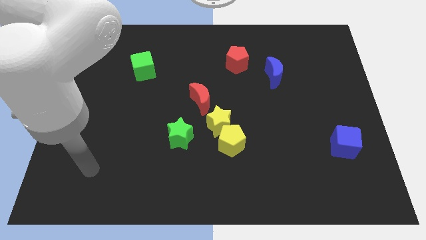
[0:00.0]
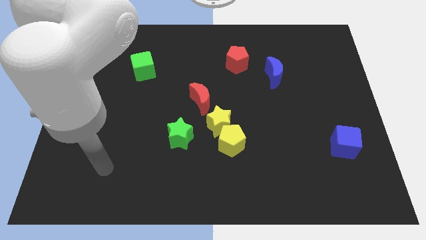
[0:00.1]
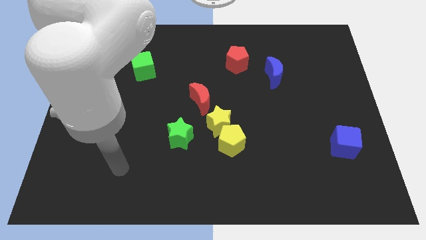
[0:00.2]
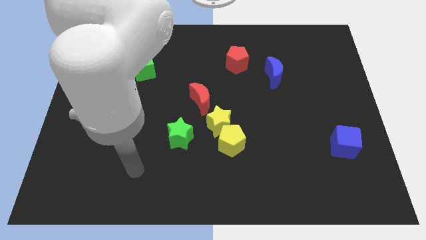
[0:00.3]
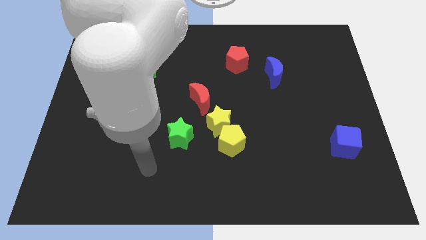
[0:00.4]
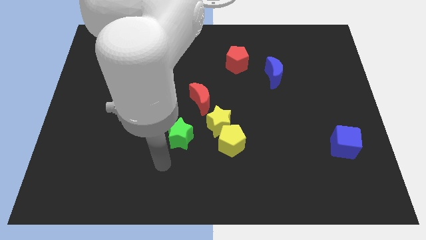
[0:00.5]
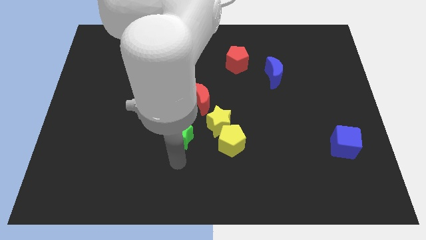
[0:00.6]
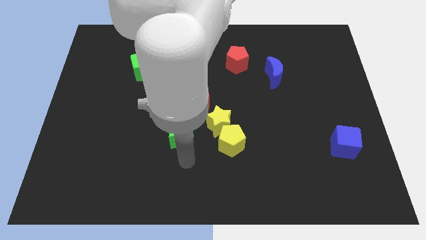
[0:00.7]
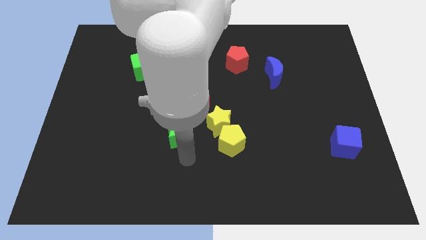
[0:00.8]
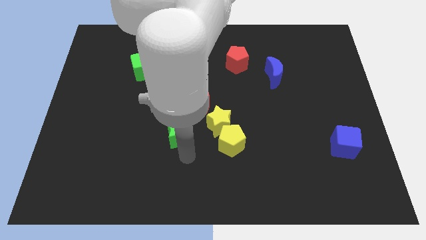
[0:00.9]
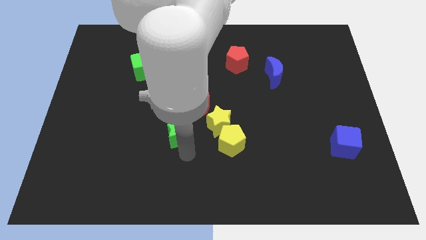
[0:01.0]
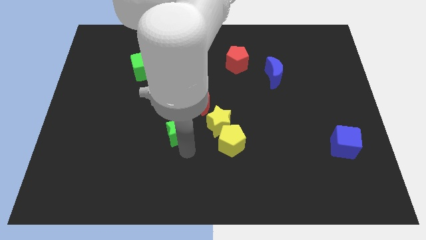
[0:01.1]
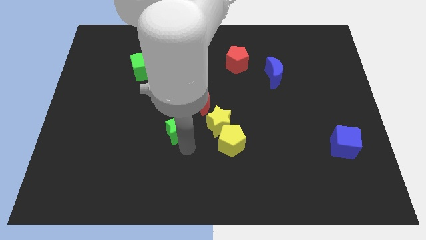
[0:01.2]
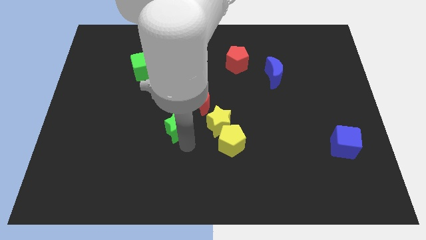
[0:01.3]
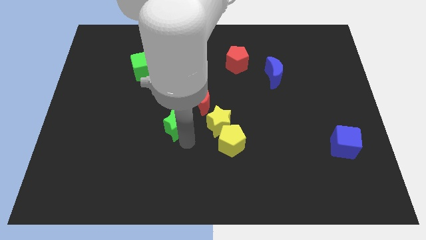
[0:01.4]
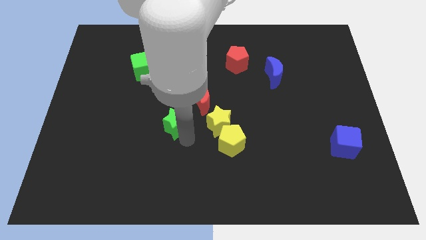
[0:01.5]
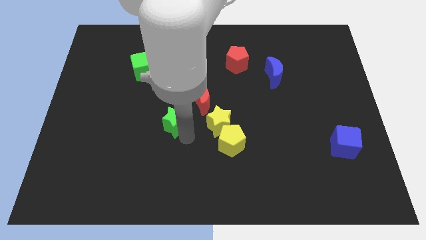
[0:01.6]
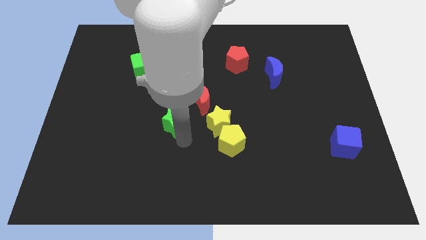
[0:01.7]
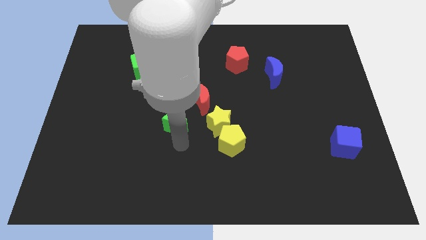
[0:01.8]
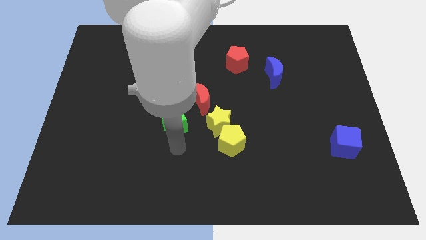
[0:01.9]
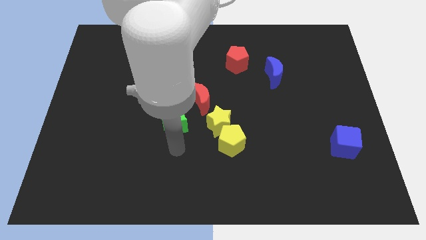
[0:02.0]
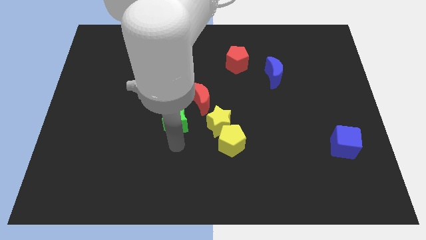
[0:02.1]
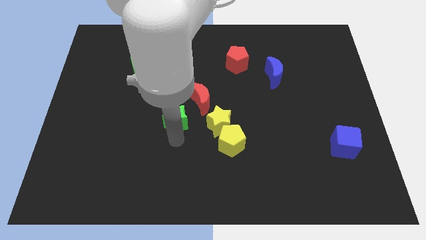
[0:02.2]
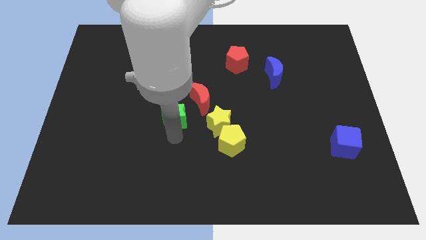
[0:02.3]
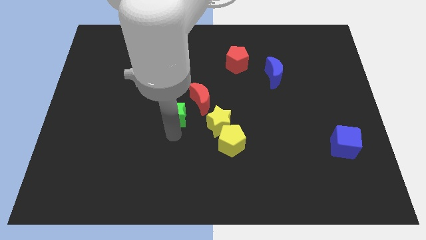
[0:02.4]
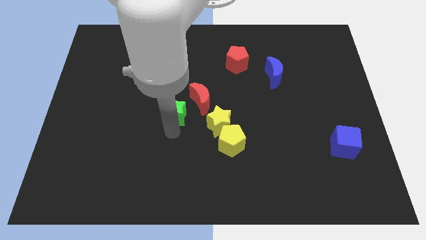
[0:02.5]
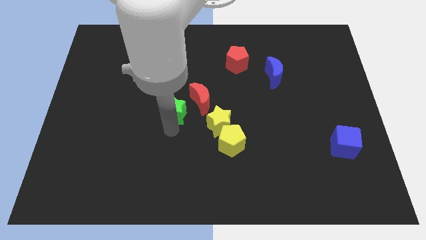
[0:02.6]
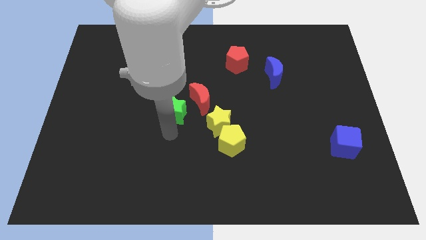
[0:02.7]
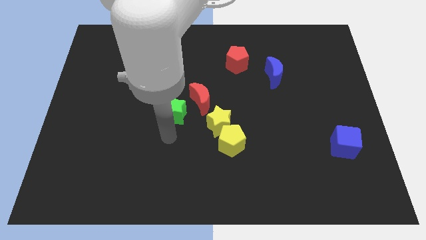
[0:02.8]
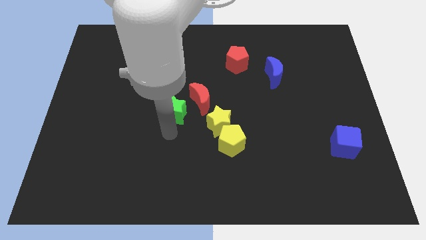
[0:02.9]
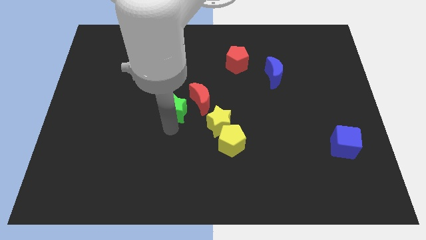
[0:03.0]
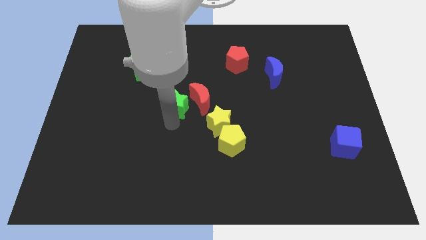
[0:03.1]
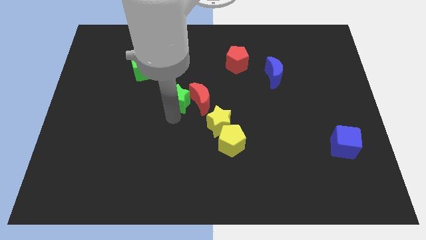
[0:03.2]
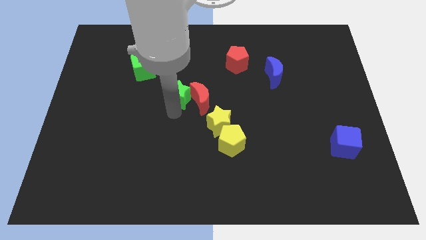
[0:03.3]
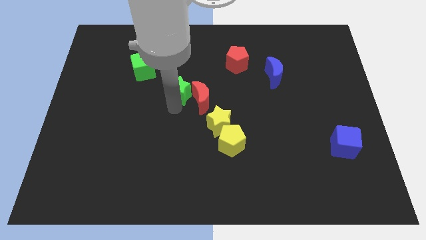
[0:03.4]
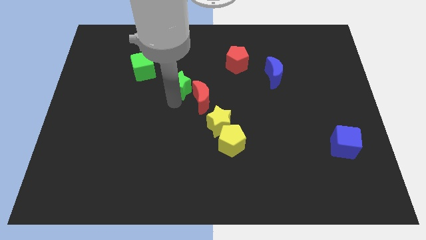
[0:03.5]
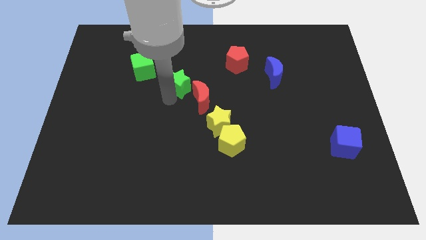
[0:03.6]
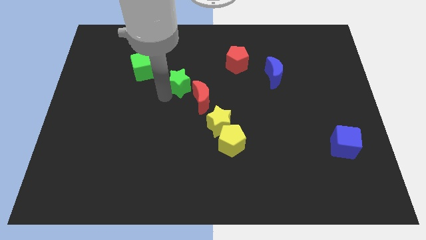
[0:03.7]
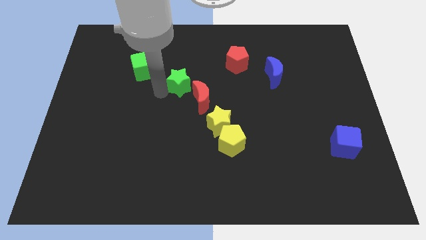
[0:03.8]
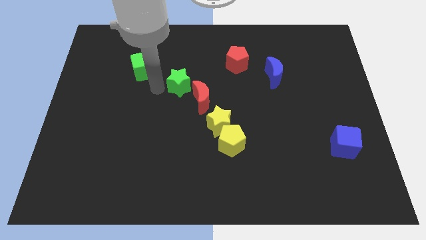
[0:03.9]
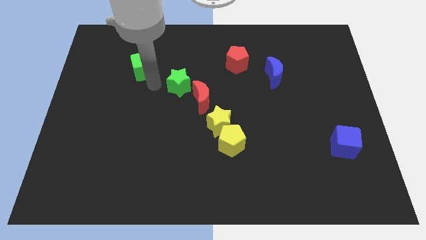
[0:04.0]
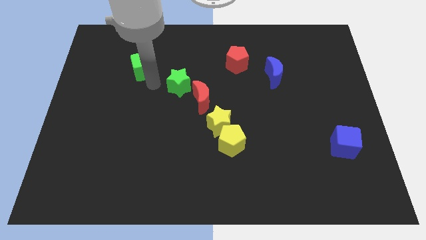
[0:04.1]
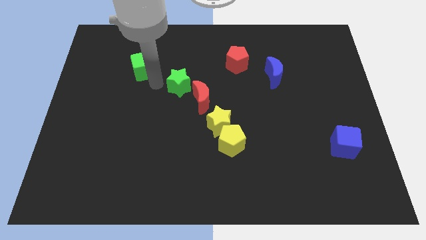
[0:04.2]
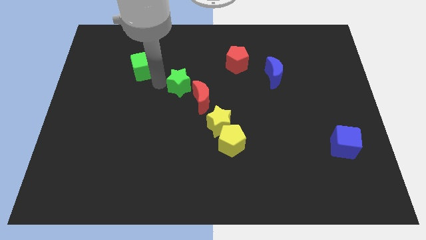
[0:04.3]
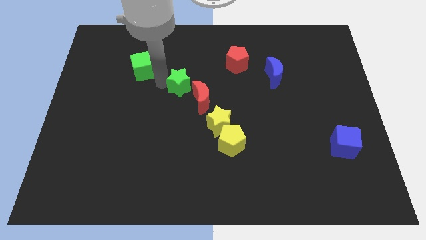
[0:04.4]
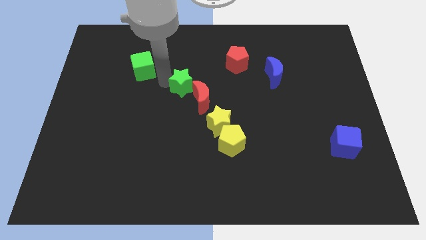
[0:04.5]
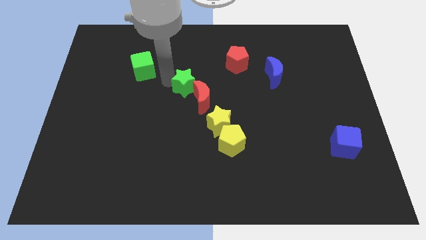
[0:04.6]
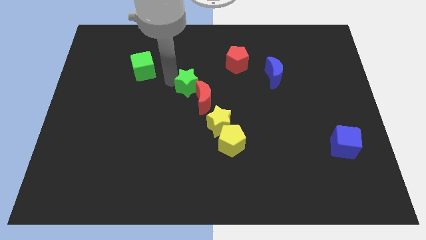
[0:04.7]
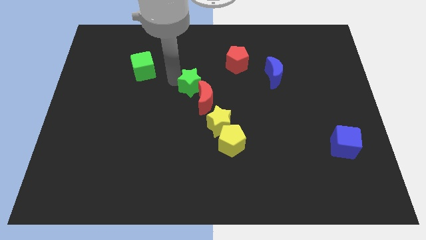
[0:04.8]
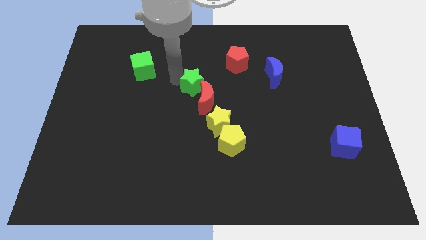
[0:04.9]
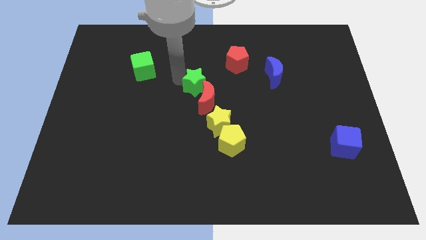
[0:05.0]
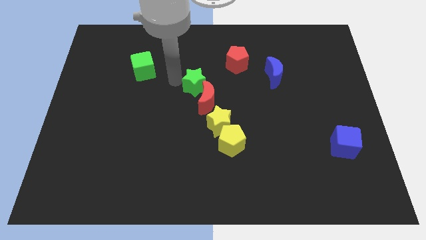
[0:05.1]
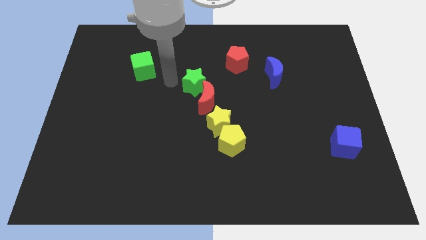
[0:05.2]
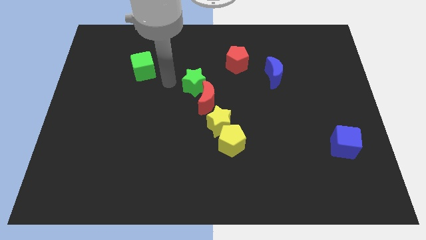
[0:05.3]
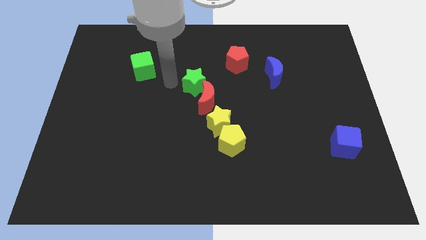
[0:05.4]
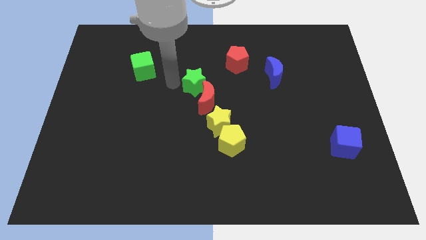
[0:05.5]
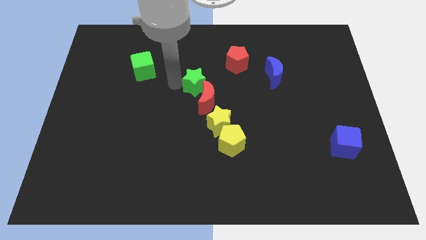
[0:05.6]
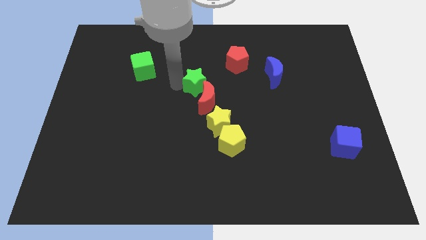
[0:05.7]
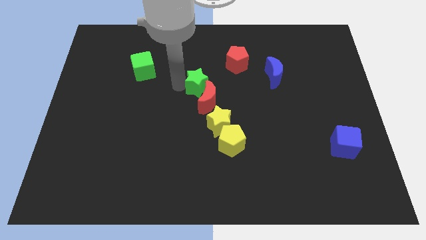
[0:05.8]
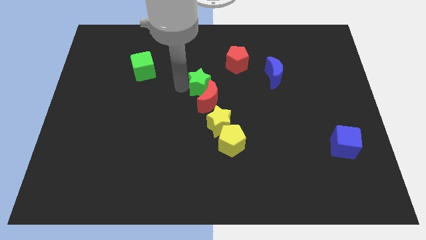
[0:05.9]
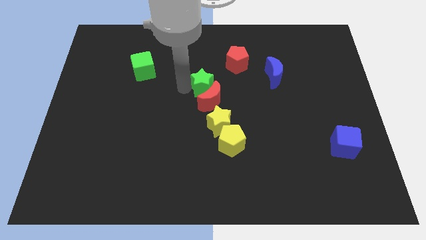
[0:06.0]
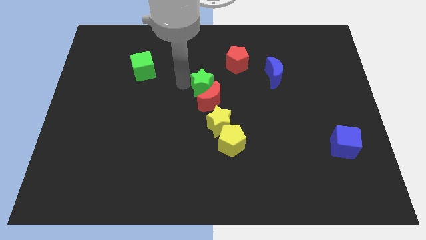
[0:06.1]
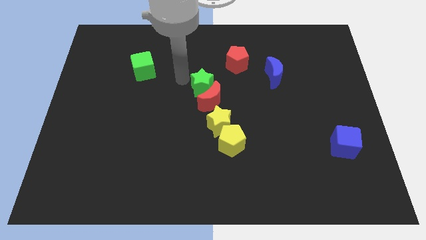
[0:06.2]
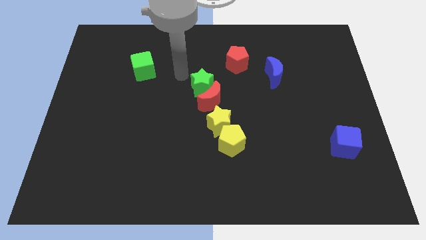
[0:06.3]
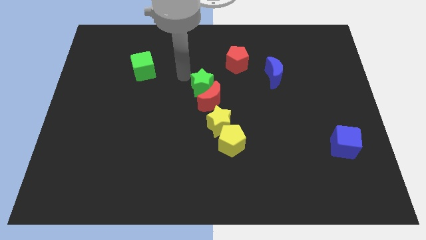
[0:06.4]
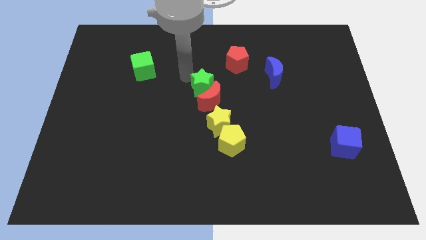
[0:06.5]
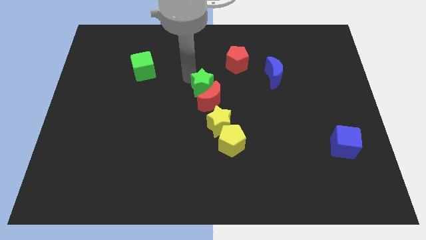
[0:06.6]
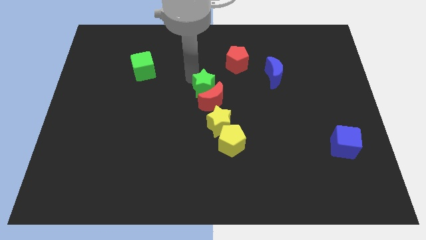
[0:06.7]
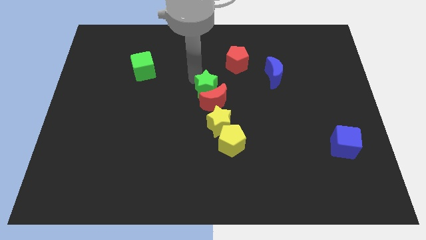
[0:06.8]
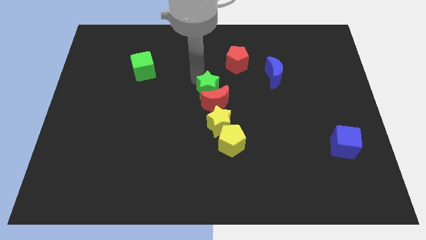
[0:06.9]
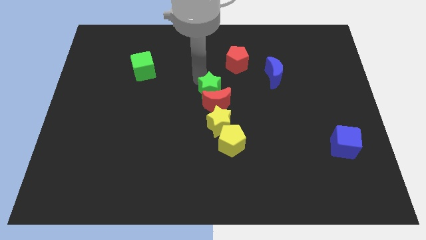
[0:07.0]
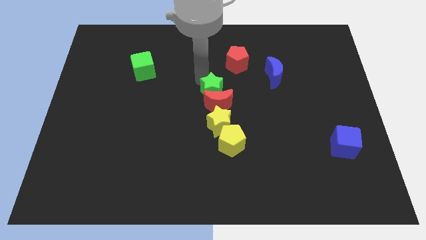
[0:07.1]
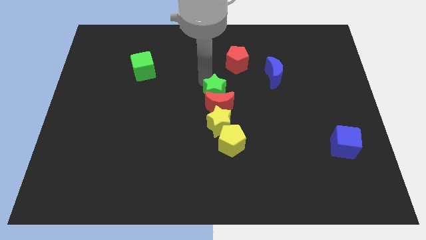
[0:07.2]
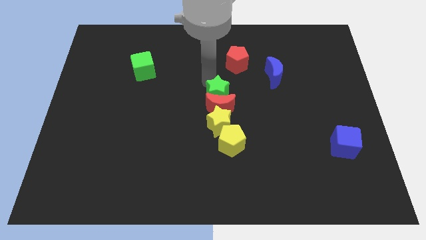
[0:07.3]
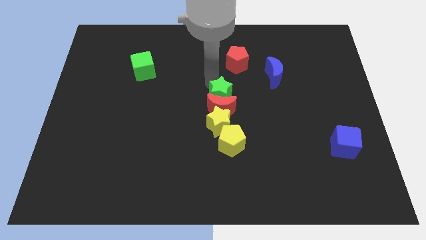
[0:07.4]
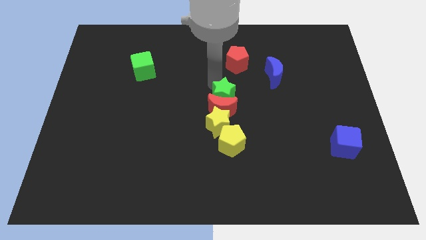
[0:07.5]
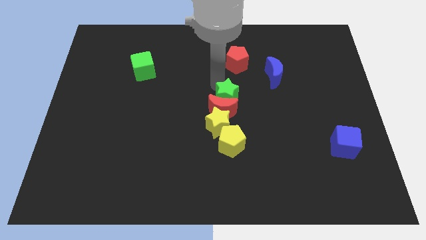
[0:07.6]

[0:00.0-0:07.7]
slide the green star diagonally up and to the right of the yellow star
